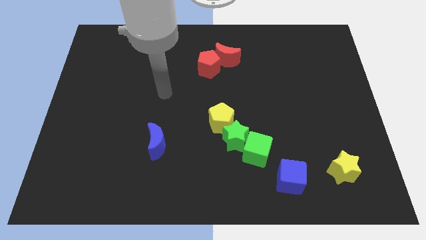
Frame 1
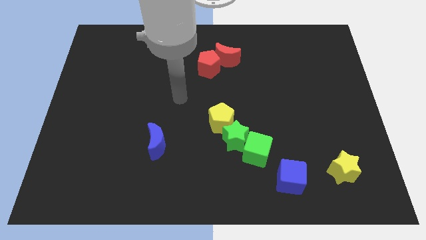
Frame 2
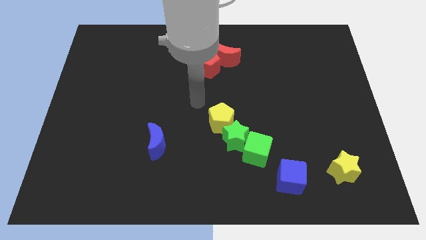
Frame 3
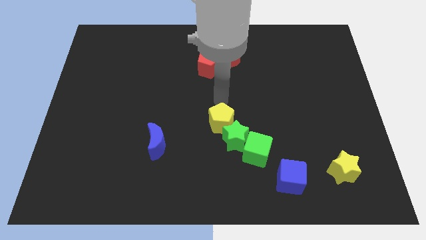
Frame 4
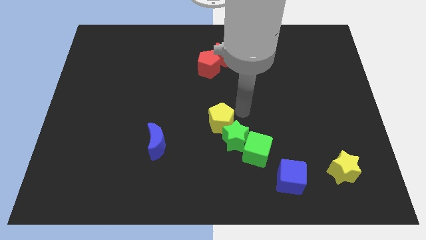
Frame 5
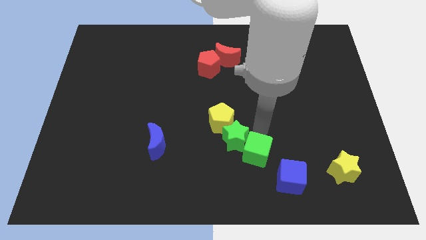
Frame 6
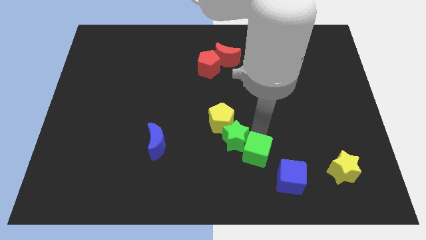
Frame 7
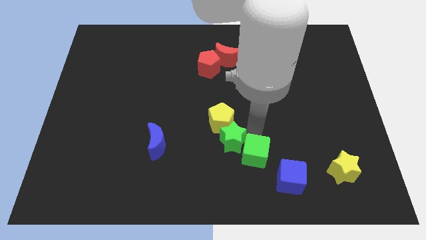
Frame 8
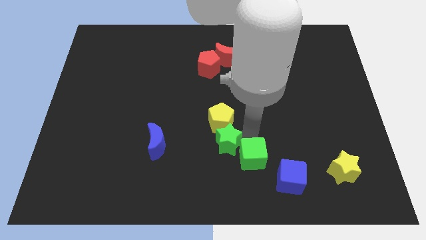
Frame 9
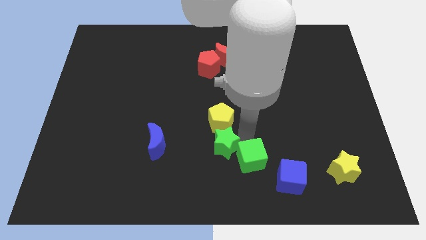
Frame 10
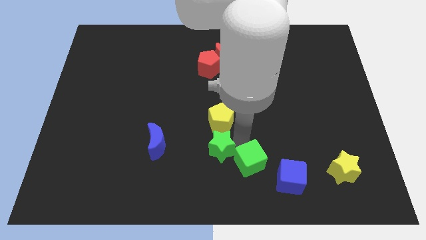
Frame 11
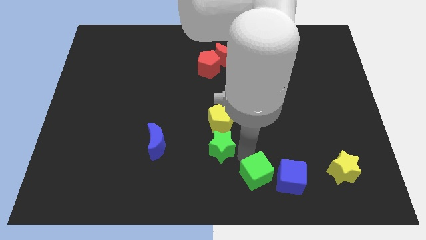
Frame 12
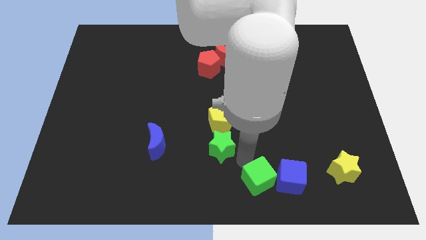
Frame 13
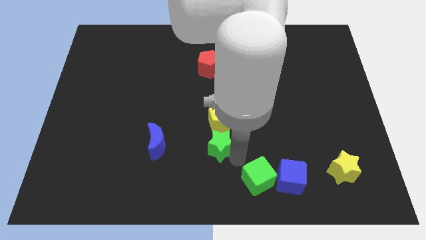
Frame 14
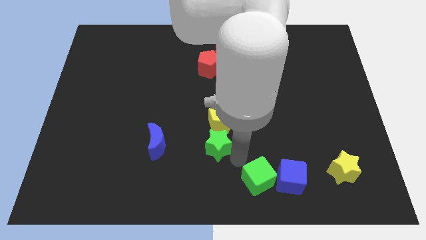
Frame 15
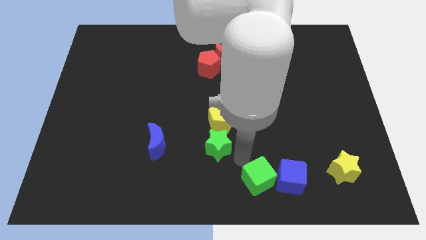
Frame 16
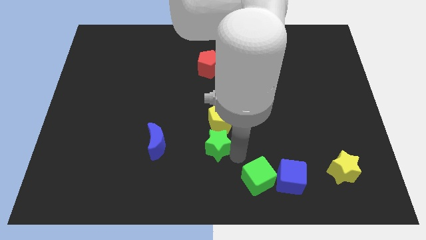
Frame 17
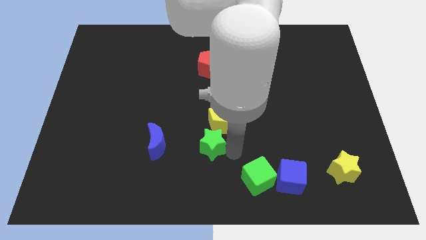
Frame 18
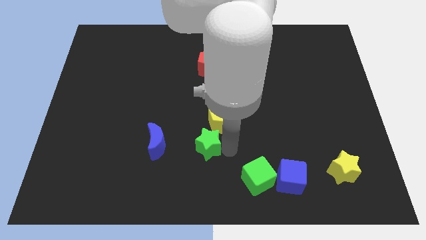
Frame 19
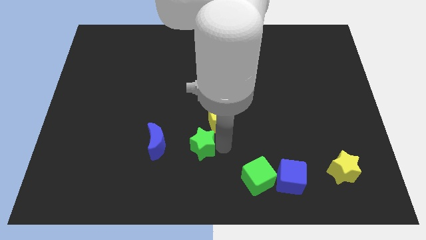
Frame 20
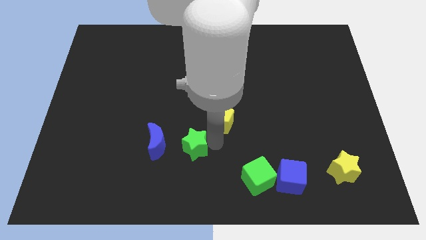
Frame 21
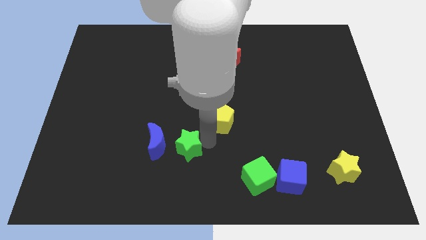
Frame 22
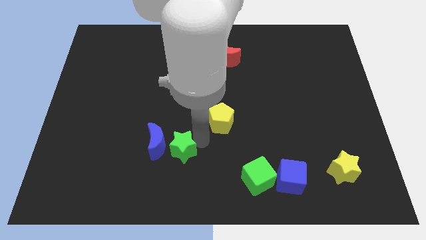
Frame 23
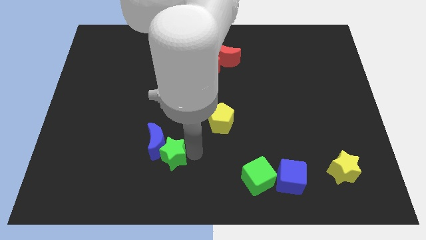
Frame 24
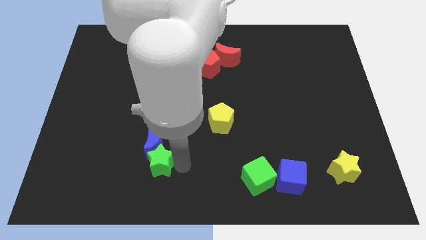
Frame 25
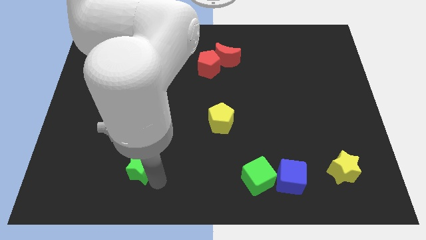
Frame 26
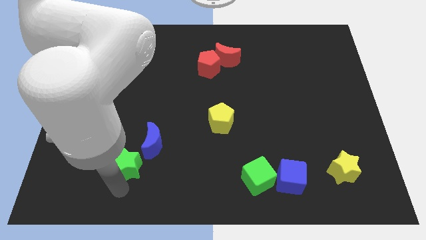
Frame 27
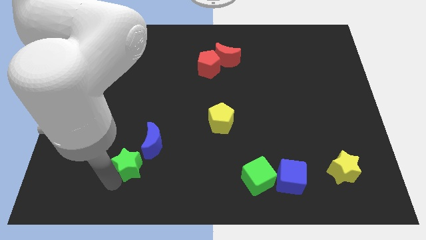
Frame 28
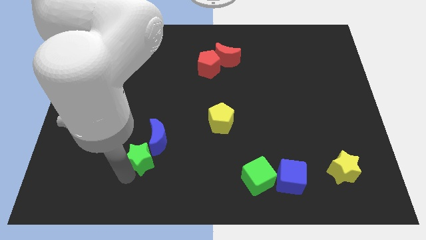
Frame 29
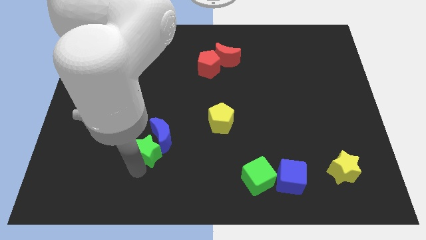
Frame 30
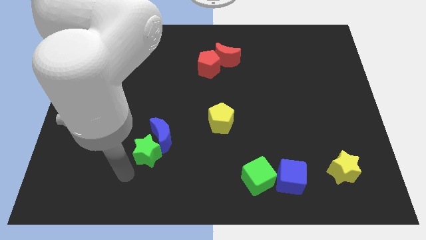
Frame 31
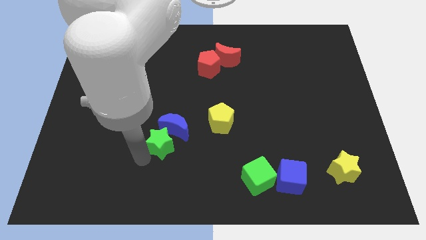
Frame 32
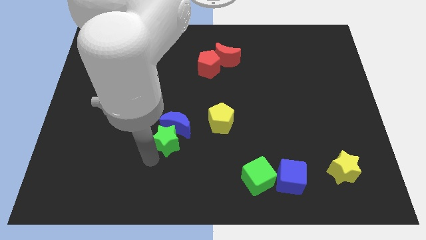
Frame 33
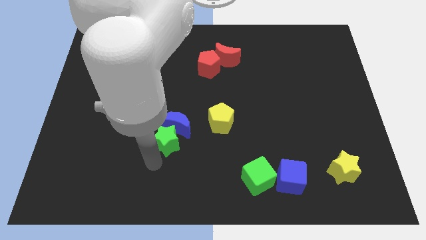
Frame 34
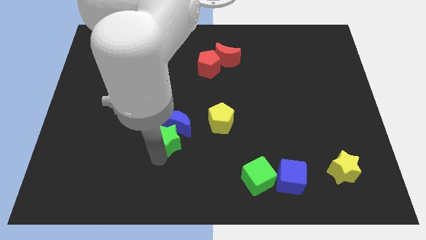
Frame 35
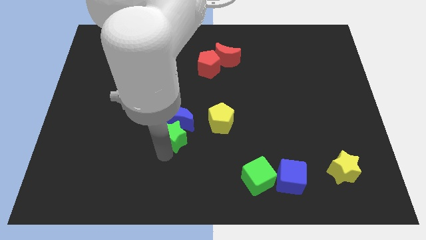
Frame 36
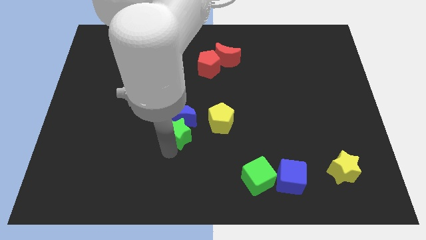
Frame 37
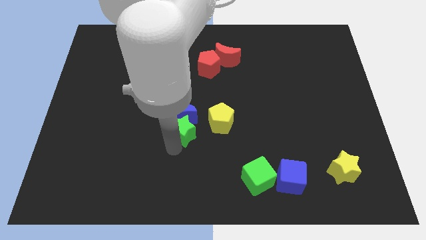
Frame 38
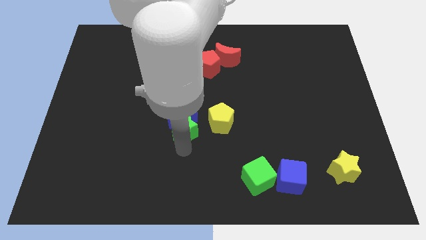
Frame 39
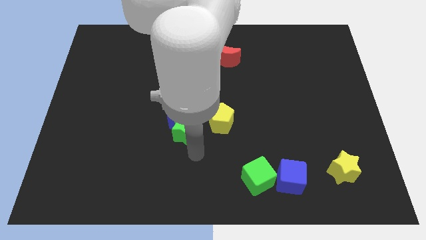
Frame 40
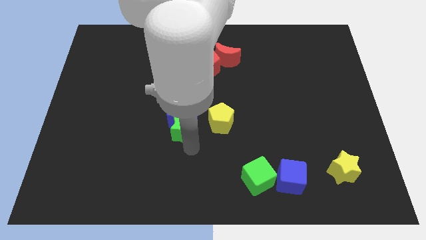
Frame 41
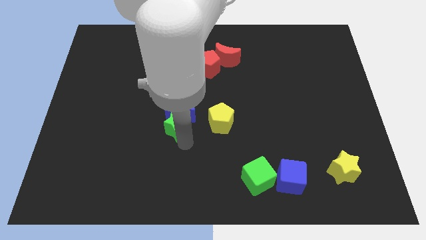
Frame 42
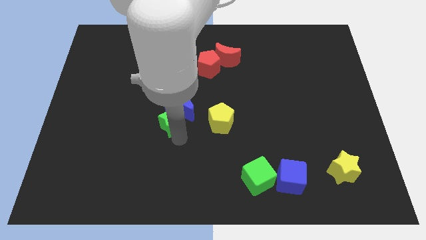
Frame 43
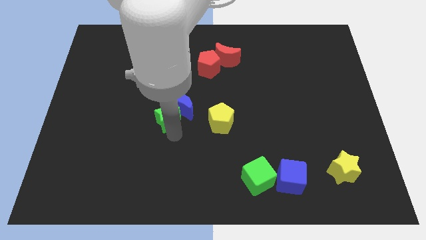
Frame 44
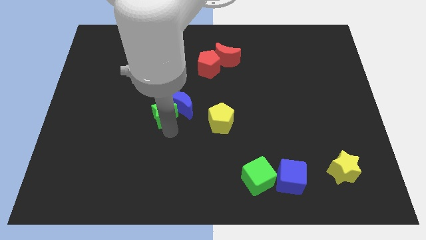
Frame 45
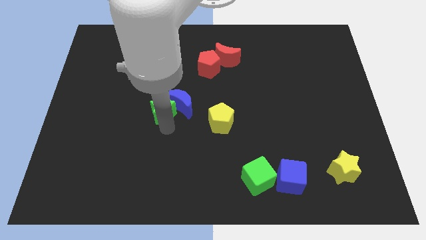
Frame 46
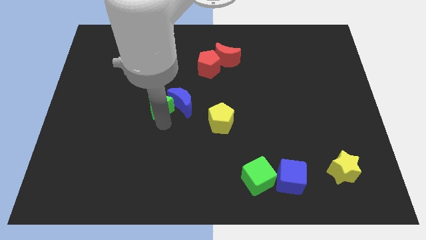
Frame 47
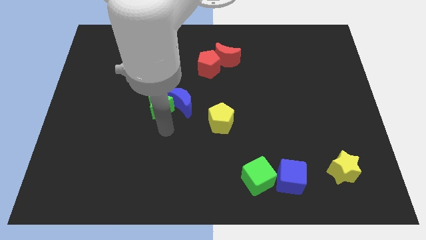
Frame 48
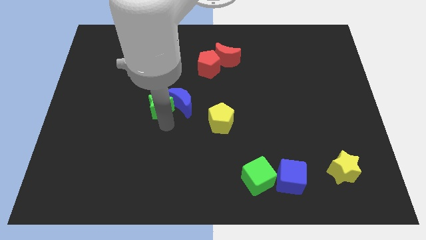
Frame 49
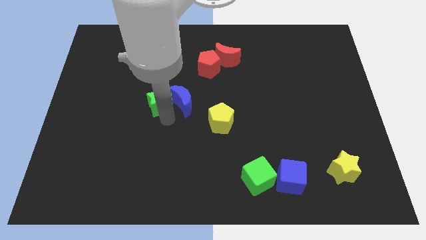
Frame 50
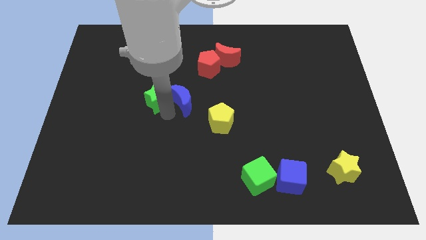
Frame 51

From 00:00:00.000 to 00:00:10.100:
slide the green star diagonally up and to the left

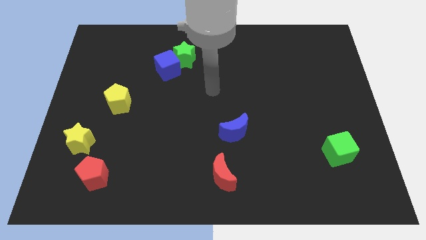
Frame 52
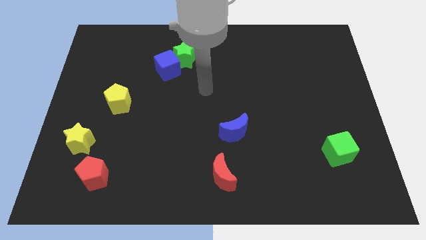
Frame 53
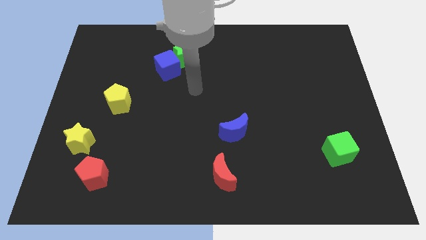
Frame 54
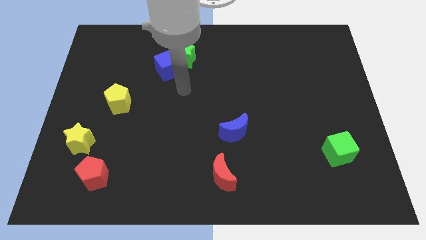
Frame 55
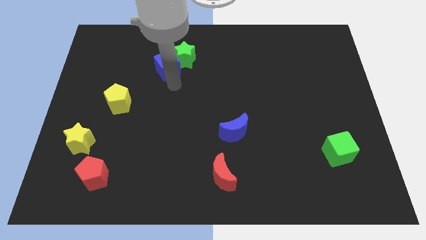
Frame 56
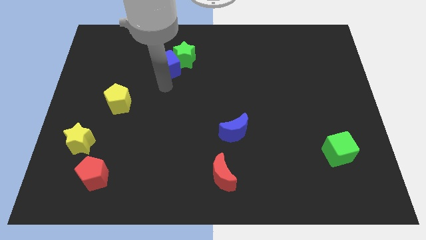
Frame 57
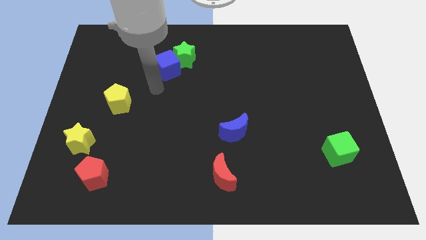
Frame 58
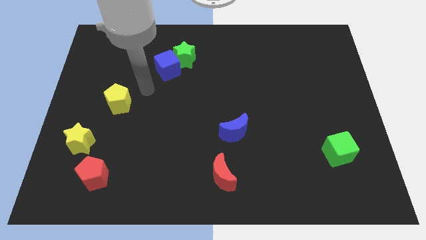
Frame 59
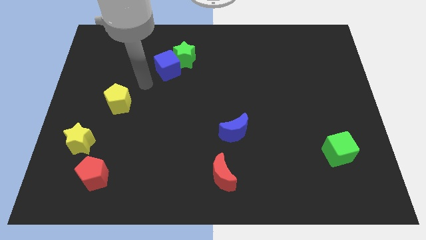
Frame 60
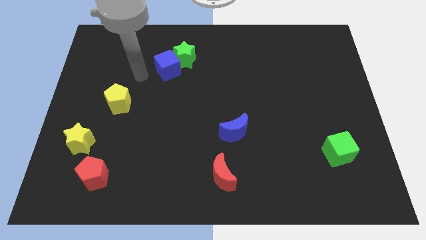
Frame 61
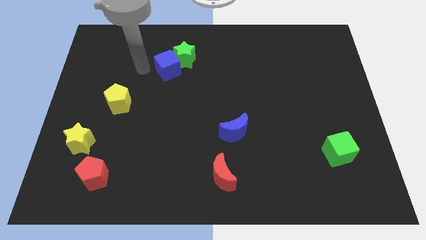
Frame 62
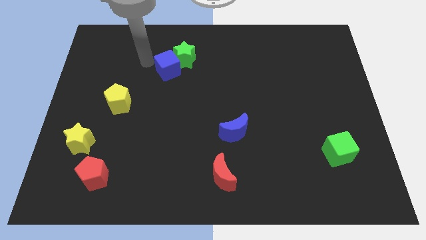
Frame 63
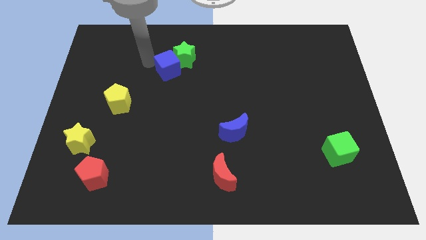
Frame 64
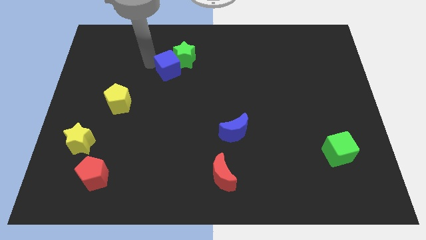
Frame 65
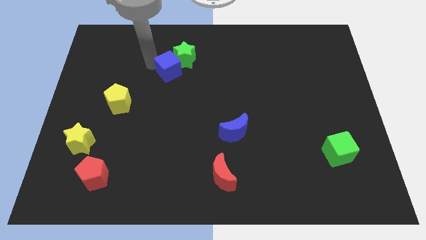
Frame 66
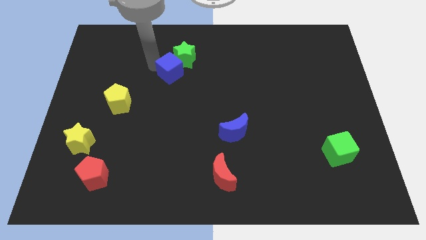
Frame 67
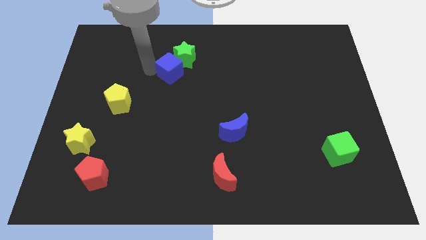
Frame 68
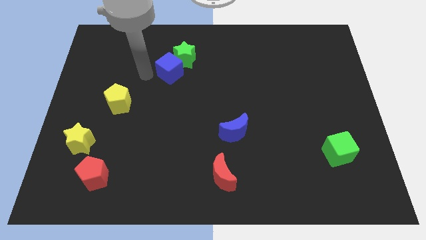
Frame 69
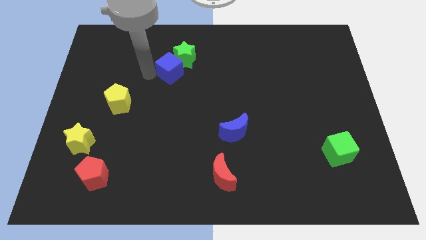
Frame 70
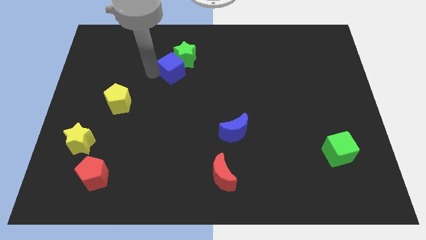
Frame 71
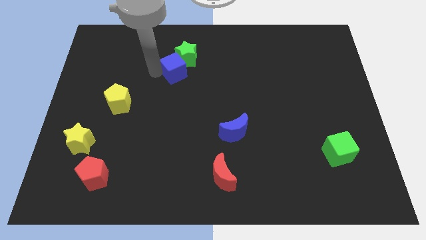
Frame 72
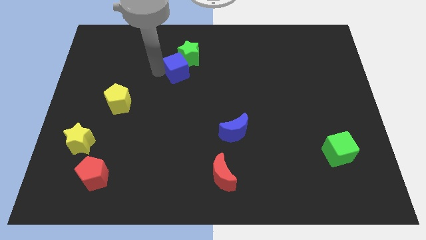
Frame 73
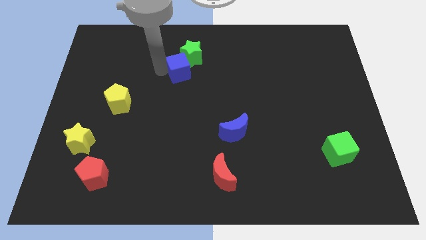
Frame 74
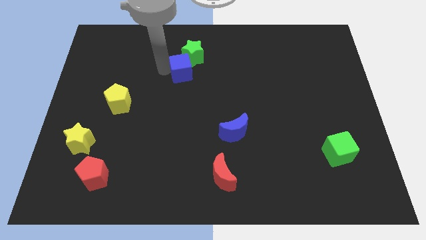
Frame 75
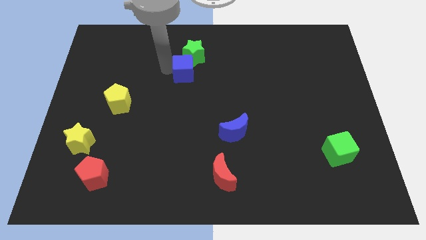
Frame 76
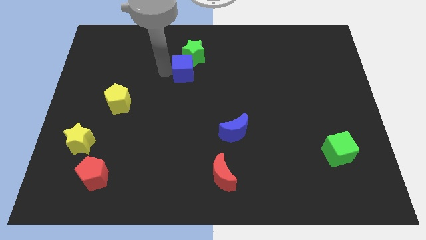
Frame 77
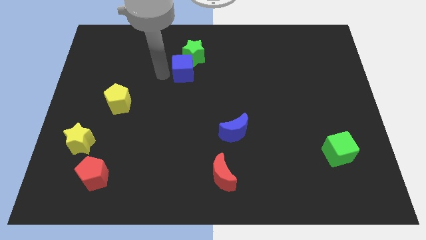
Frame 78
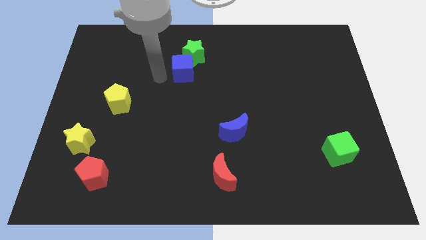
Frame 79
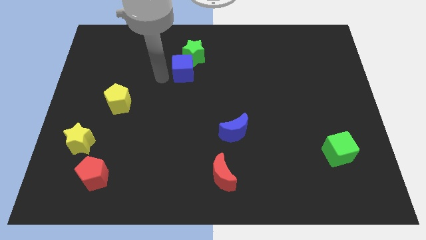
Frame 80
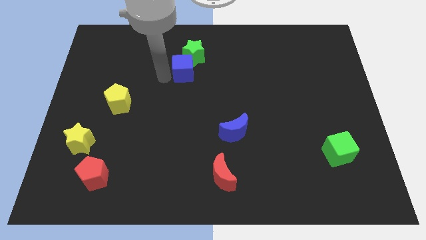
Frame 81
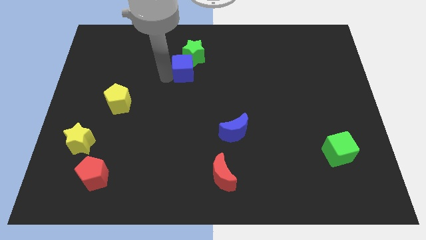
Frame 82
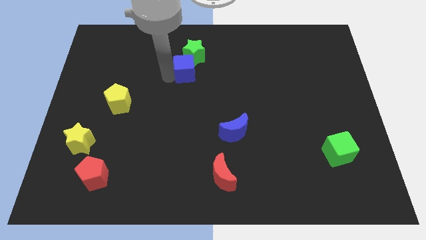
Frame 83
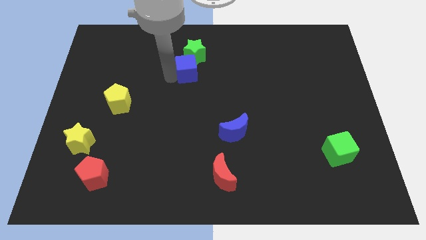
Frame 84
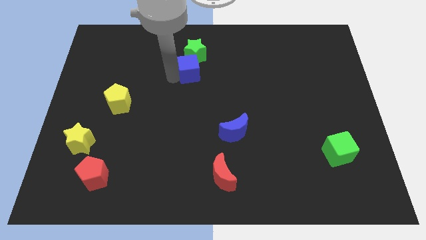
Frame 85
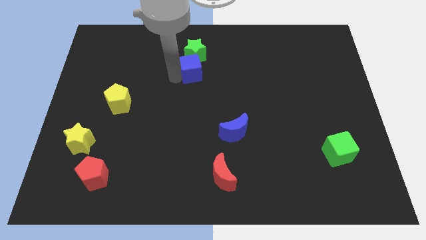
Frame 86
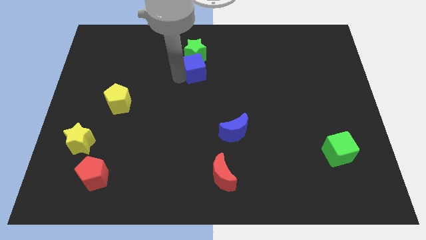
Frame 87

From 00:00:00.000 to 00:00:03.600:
slightly slide the blue cube to the right
